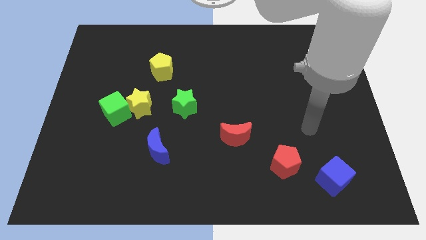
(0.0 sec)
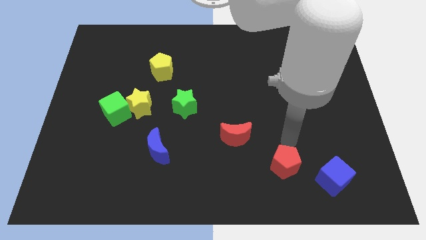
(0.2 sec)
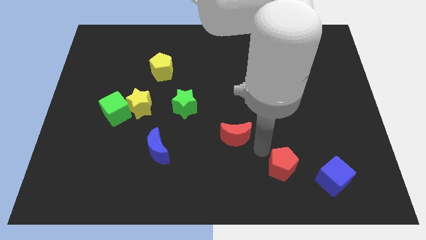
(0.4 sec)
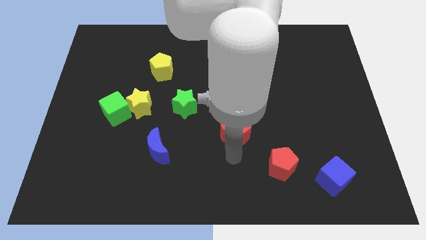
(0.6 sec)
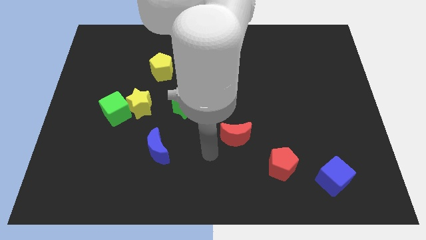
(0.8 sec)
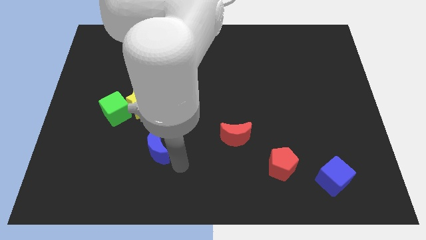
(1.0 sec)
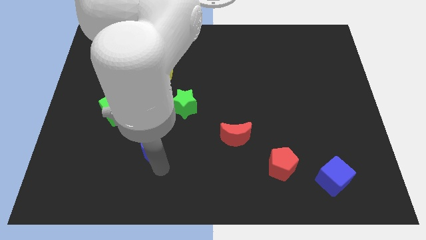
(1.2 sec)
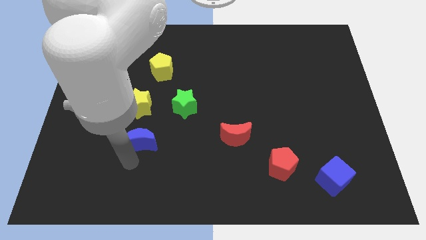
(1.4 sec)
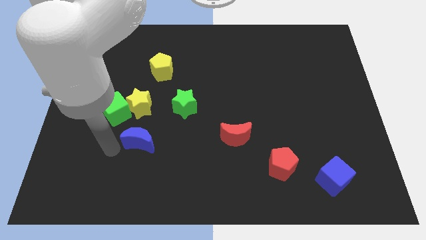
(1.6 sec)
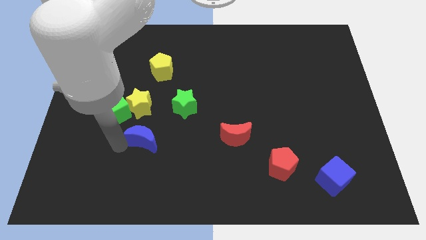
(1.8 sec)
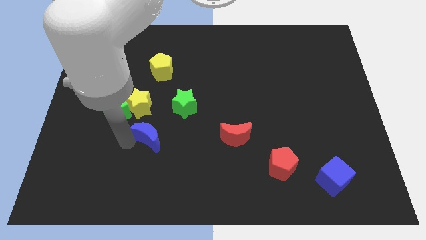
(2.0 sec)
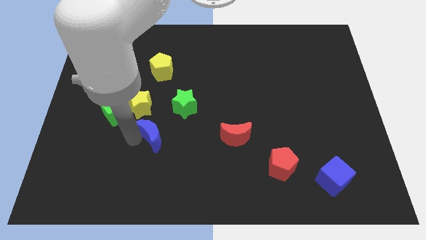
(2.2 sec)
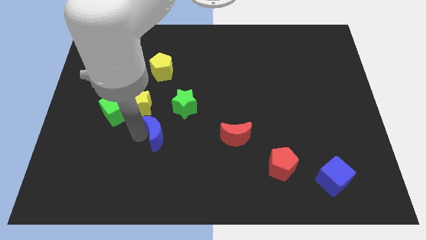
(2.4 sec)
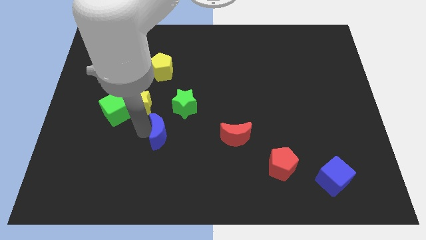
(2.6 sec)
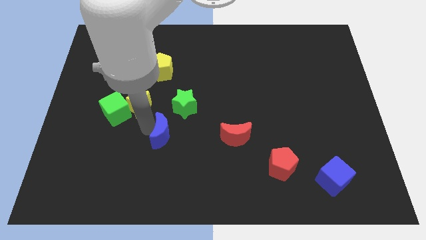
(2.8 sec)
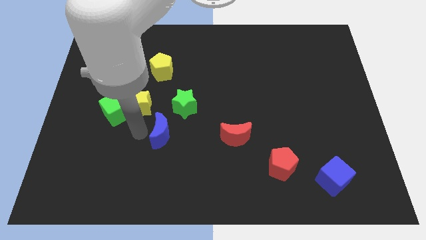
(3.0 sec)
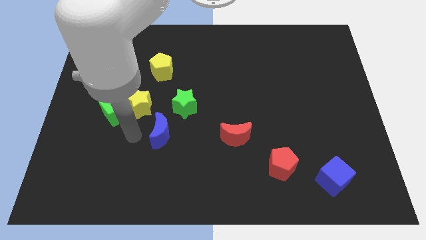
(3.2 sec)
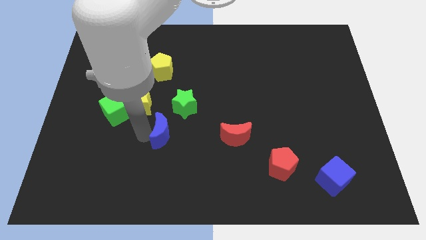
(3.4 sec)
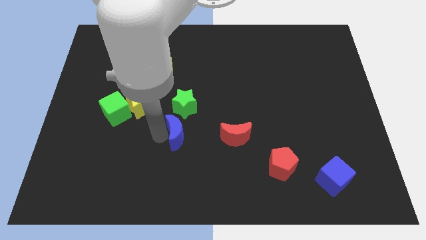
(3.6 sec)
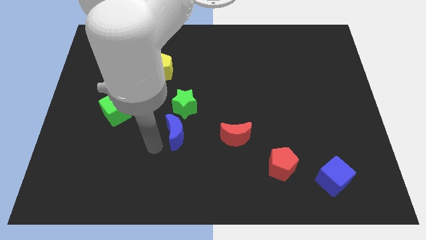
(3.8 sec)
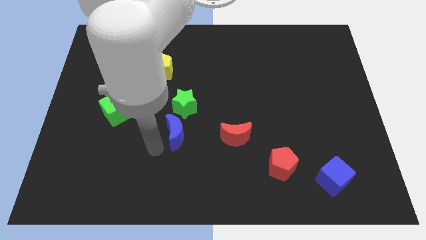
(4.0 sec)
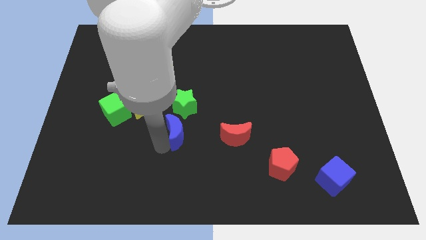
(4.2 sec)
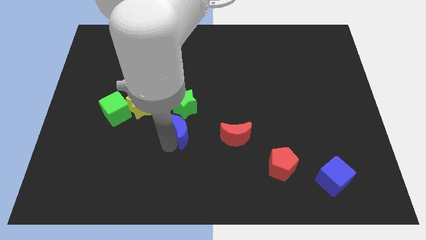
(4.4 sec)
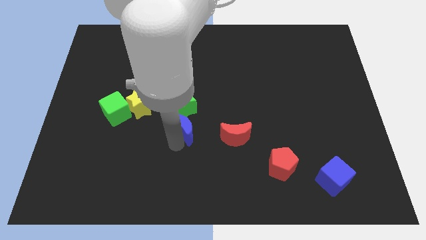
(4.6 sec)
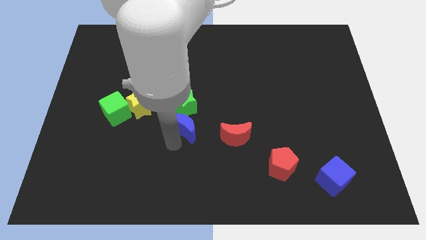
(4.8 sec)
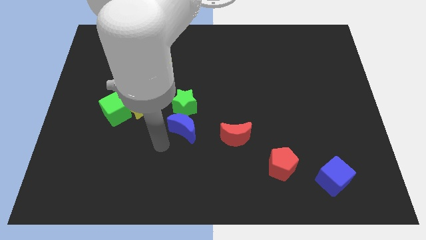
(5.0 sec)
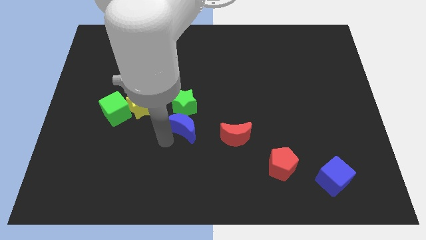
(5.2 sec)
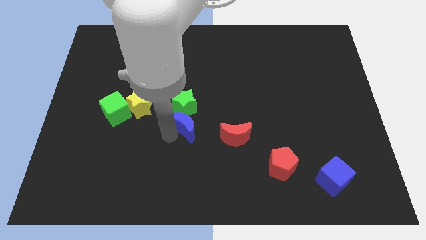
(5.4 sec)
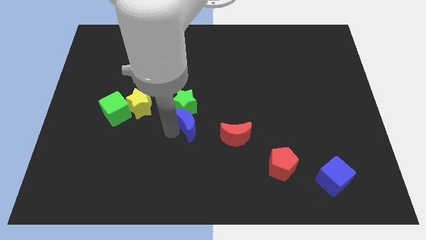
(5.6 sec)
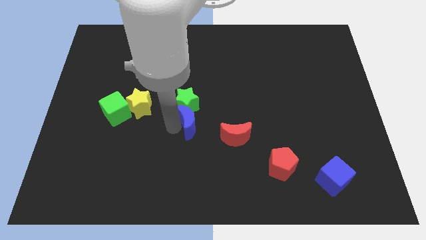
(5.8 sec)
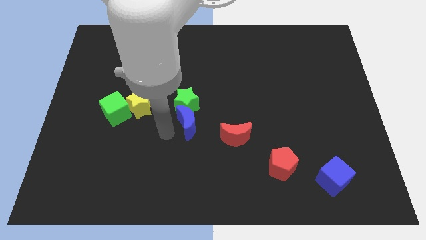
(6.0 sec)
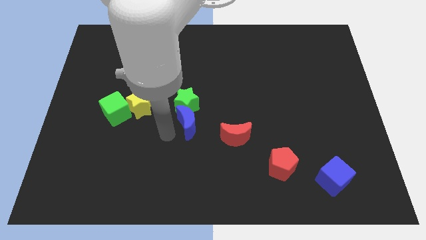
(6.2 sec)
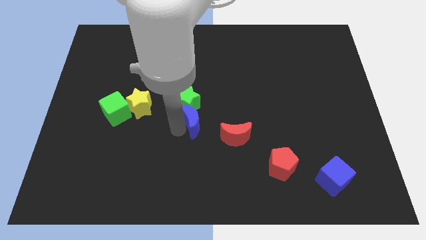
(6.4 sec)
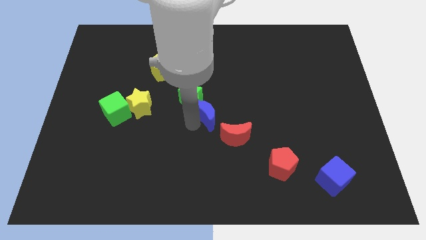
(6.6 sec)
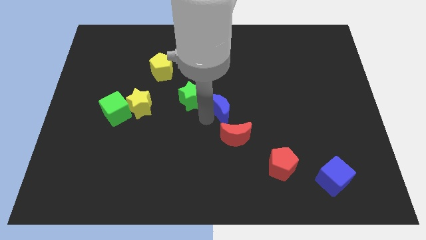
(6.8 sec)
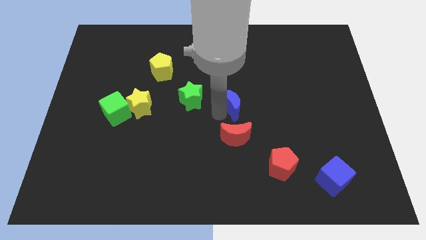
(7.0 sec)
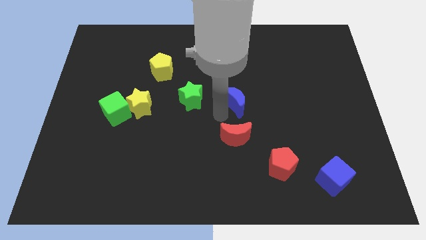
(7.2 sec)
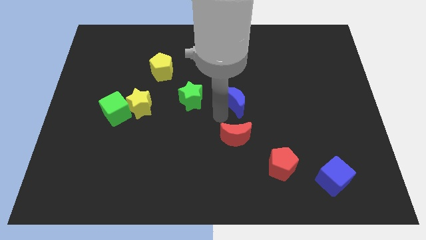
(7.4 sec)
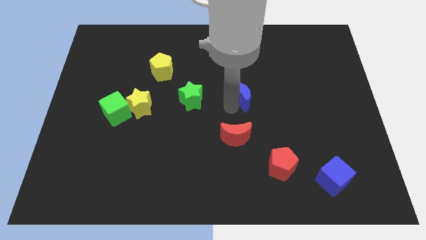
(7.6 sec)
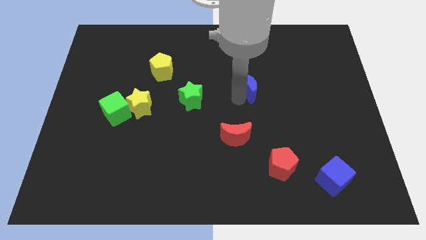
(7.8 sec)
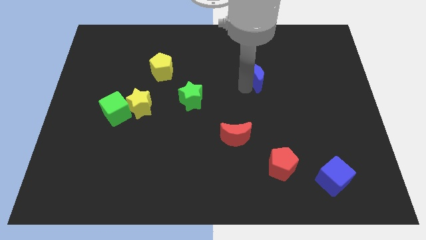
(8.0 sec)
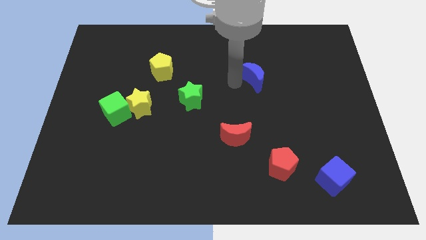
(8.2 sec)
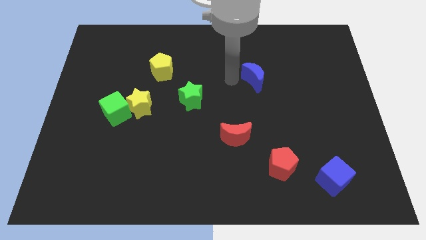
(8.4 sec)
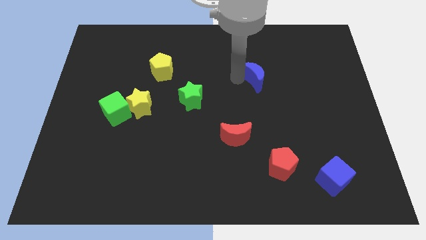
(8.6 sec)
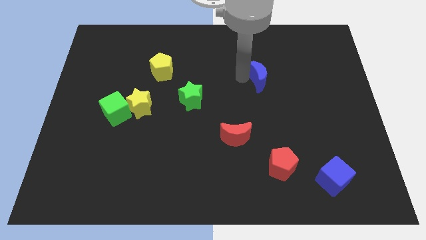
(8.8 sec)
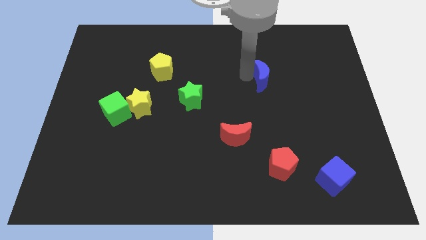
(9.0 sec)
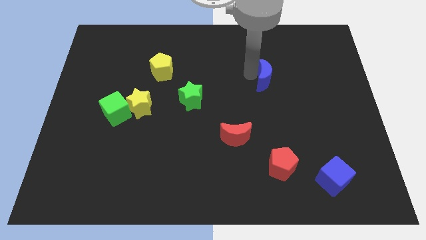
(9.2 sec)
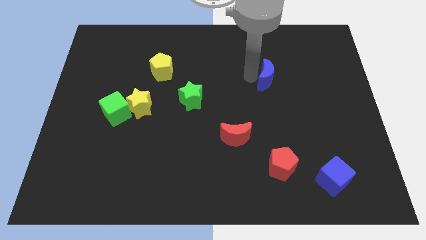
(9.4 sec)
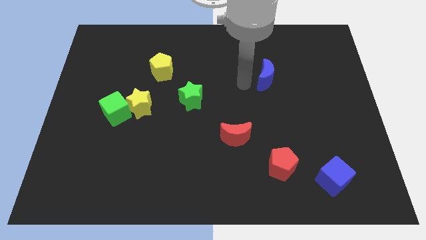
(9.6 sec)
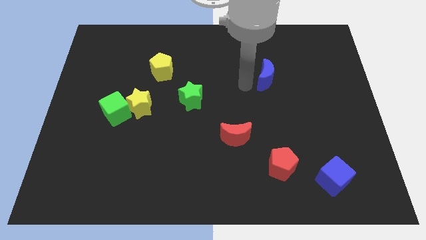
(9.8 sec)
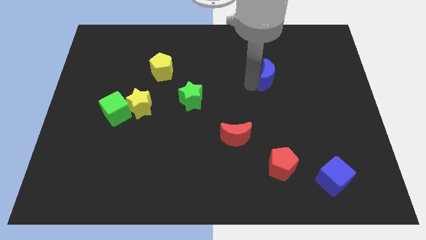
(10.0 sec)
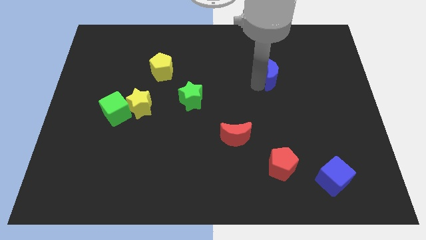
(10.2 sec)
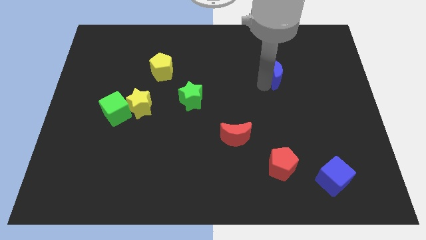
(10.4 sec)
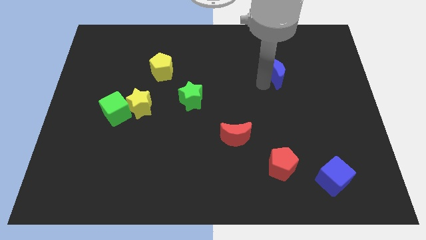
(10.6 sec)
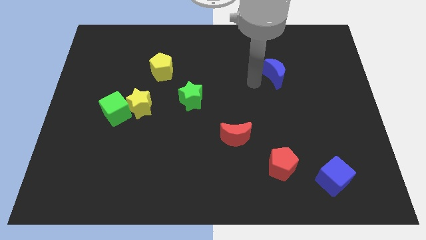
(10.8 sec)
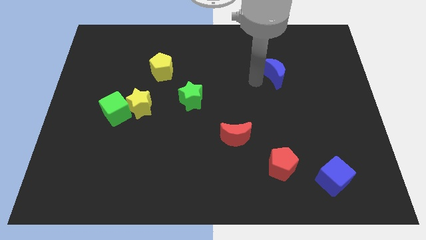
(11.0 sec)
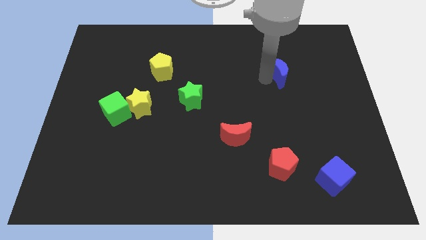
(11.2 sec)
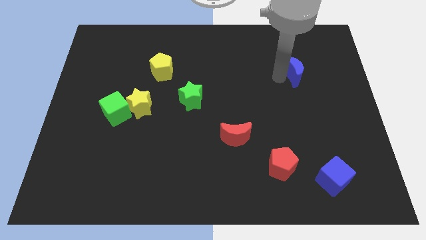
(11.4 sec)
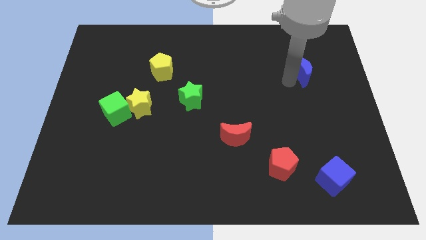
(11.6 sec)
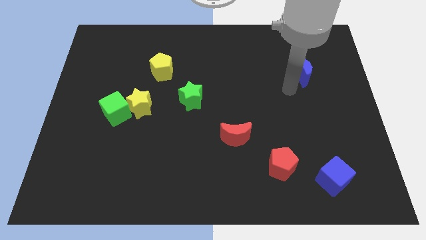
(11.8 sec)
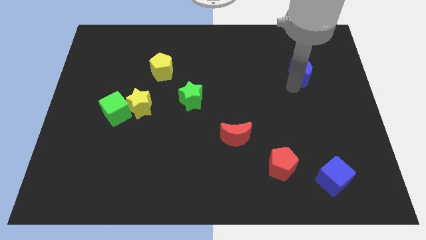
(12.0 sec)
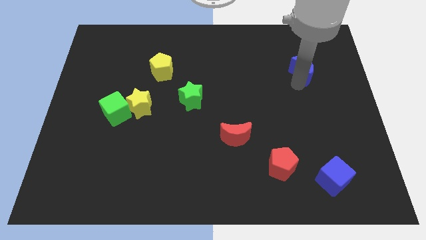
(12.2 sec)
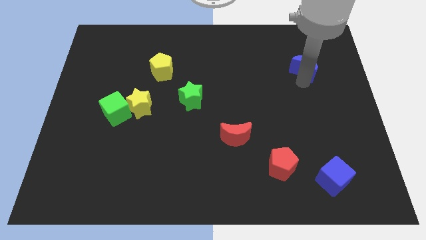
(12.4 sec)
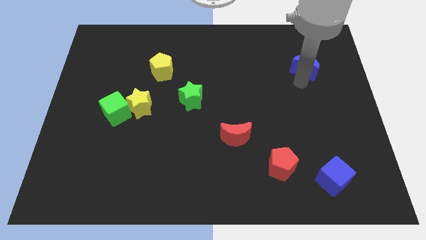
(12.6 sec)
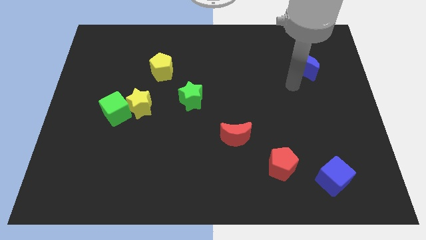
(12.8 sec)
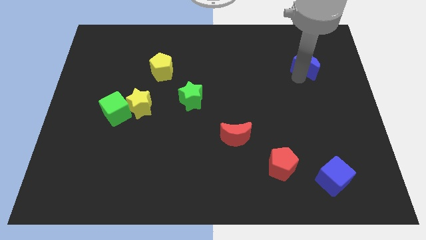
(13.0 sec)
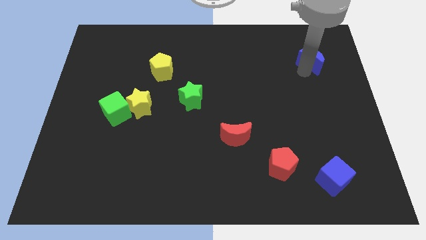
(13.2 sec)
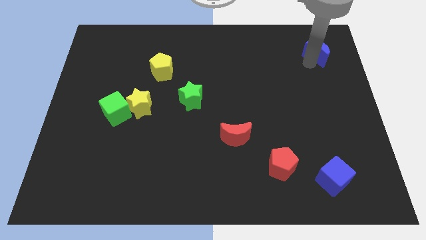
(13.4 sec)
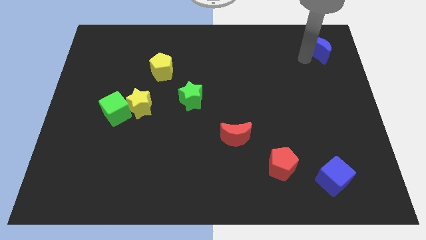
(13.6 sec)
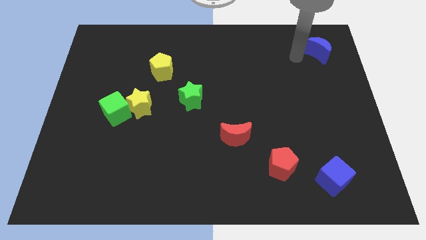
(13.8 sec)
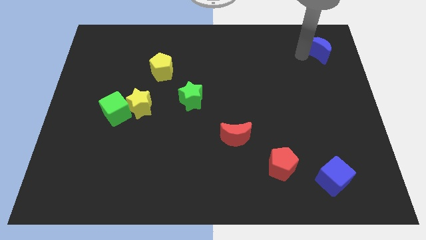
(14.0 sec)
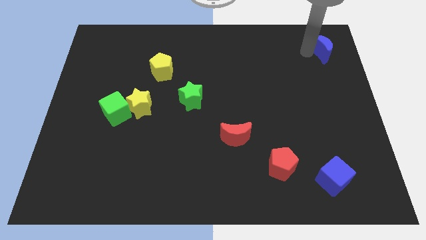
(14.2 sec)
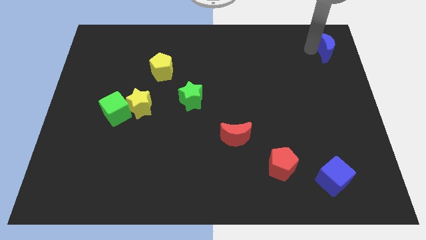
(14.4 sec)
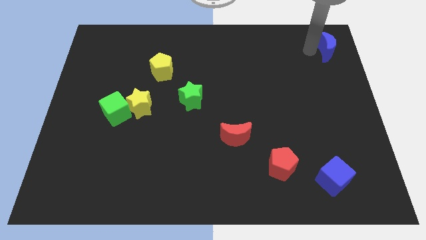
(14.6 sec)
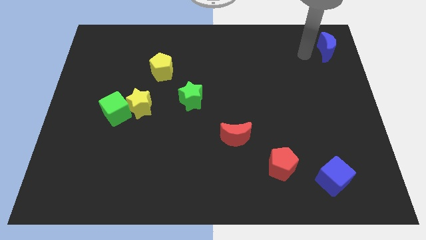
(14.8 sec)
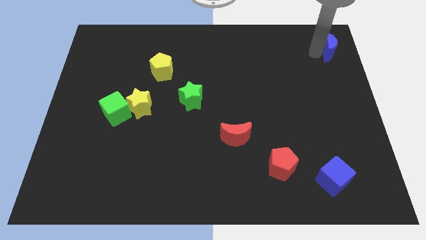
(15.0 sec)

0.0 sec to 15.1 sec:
put the blue moon to the top right
